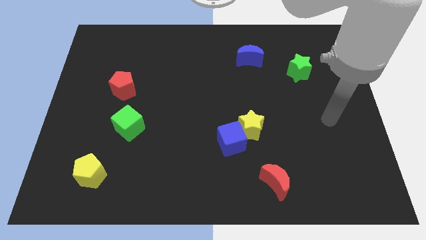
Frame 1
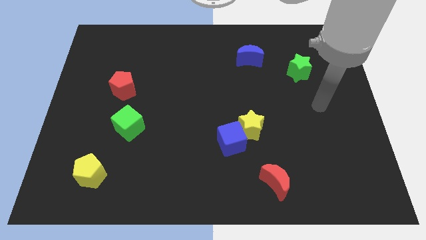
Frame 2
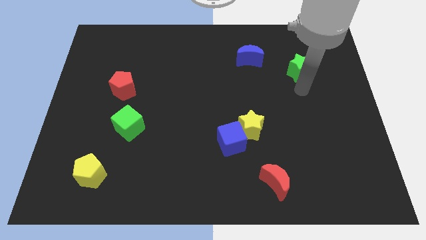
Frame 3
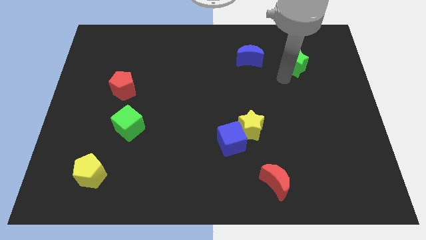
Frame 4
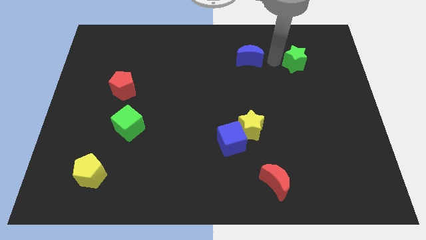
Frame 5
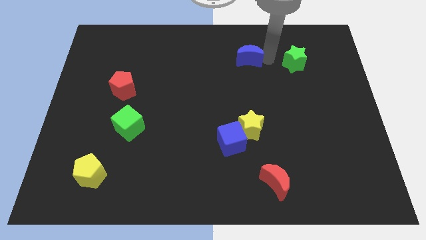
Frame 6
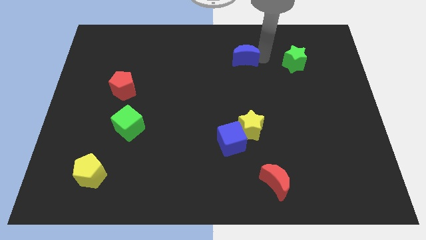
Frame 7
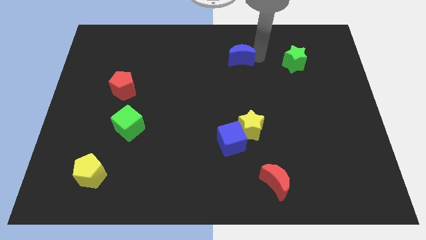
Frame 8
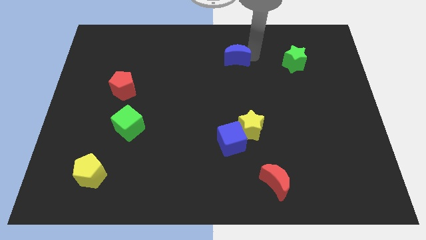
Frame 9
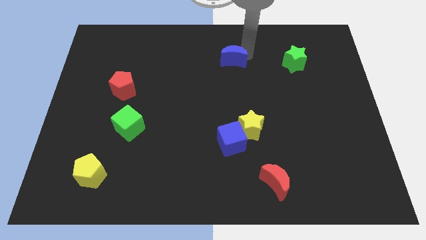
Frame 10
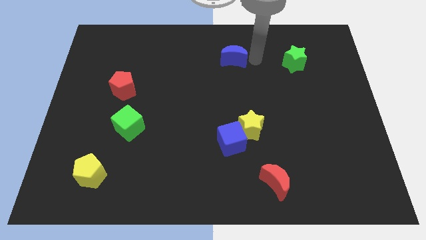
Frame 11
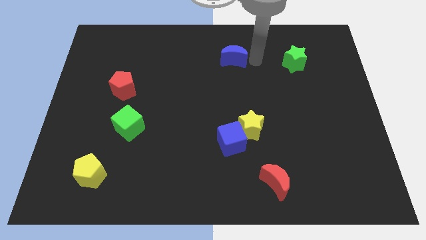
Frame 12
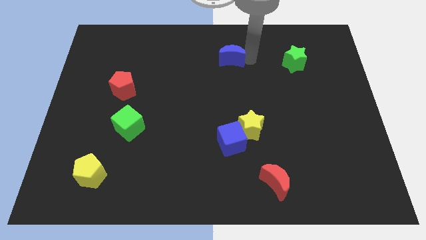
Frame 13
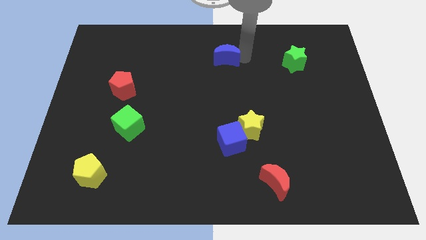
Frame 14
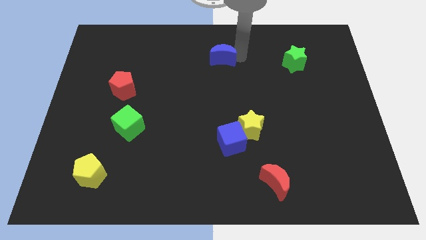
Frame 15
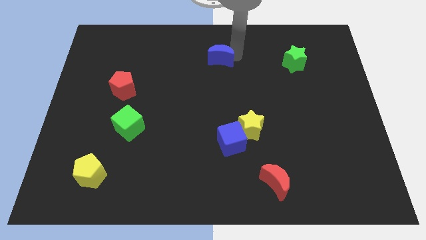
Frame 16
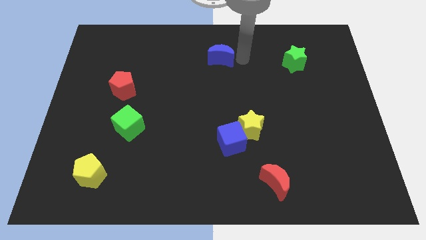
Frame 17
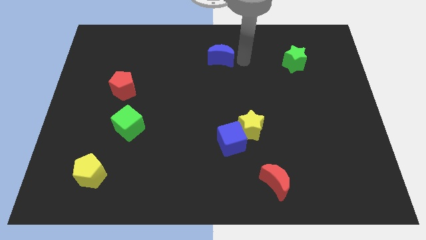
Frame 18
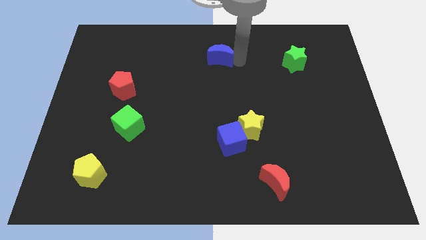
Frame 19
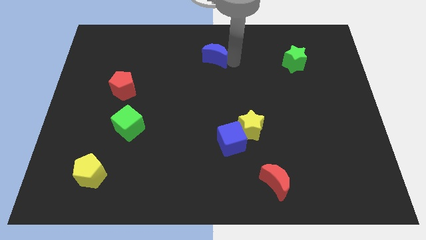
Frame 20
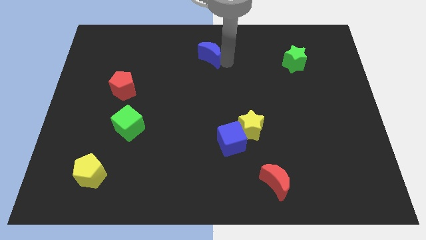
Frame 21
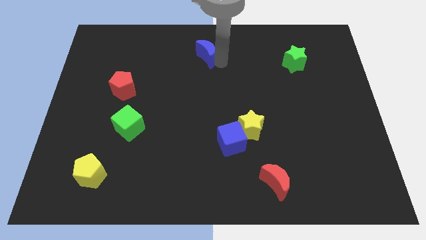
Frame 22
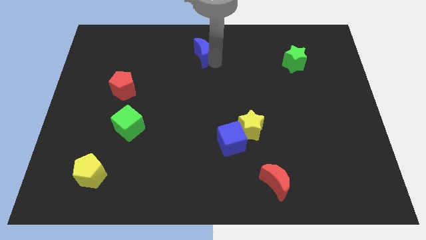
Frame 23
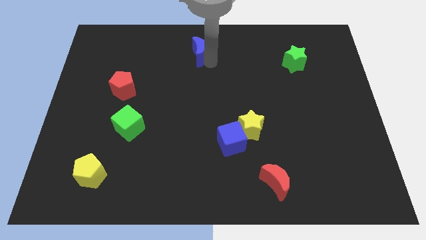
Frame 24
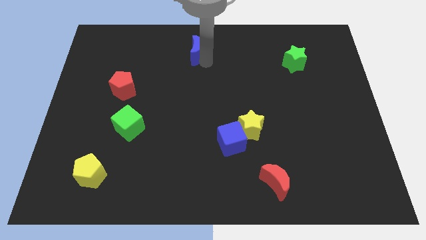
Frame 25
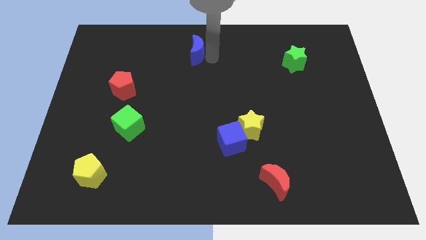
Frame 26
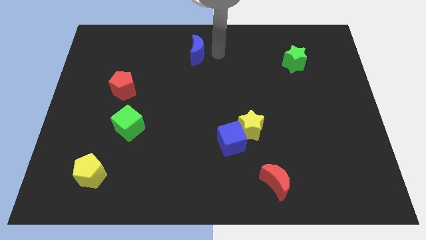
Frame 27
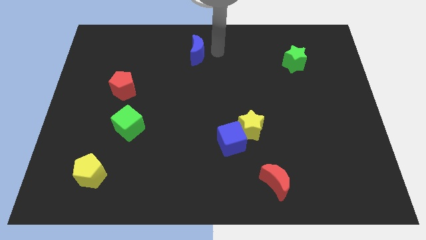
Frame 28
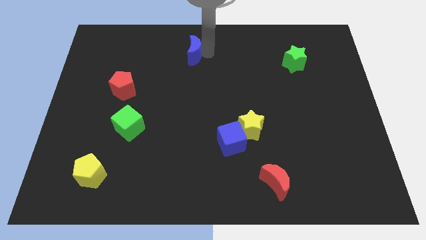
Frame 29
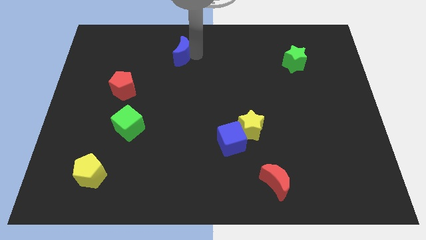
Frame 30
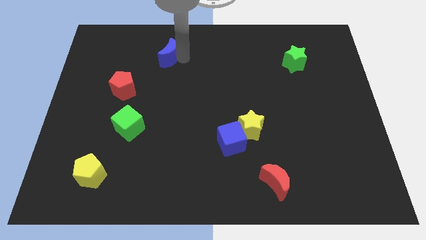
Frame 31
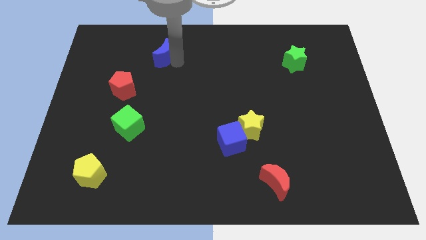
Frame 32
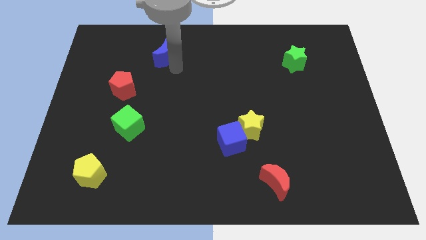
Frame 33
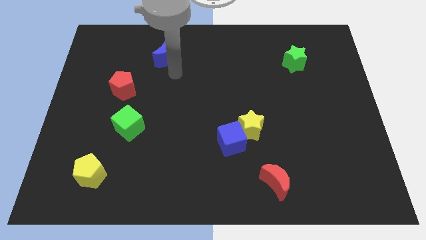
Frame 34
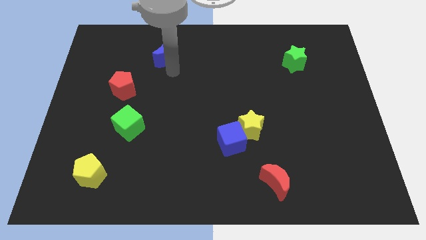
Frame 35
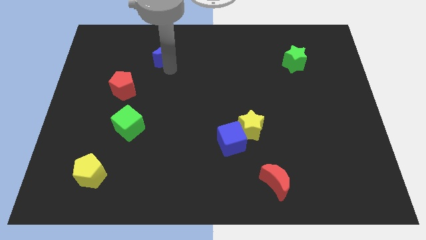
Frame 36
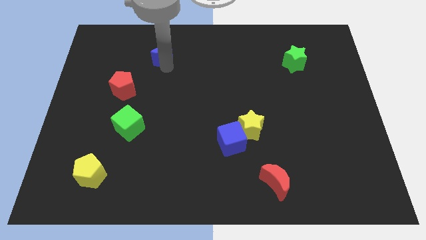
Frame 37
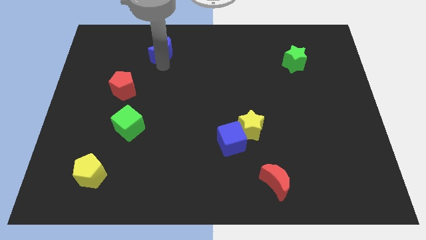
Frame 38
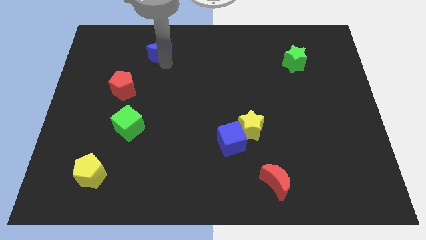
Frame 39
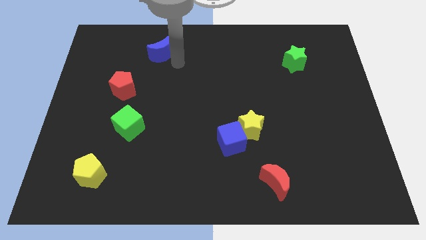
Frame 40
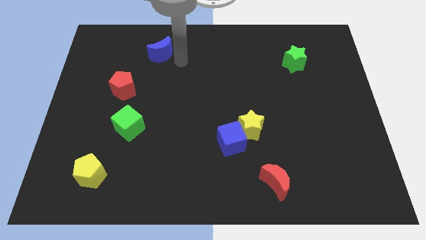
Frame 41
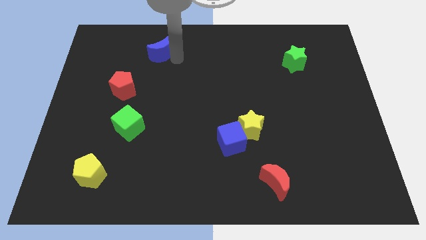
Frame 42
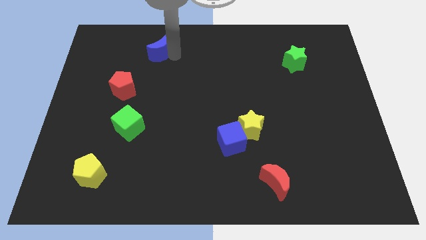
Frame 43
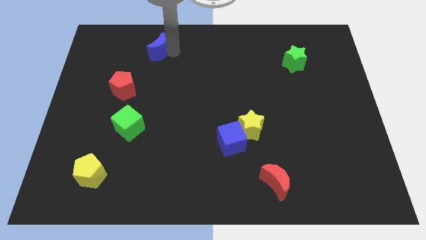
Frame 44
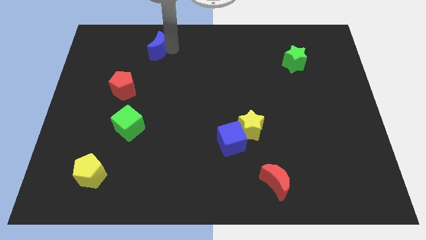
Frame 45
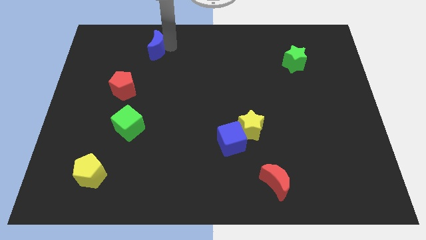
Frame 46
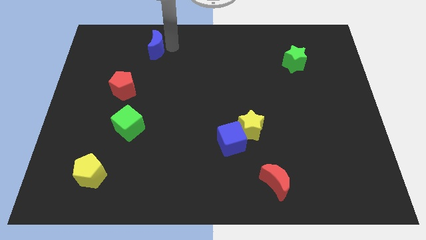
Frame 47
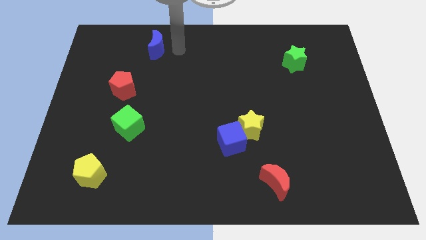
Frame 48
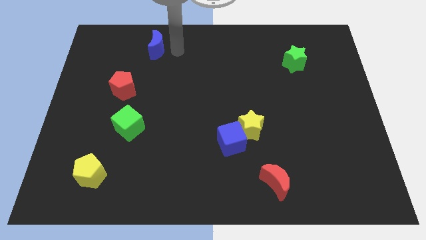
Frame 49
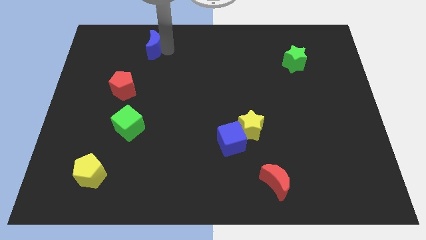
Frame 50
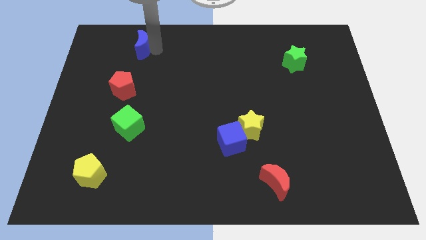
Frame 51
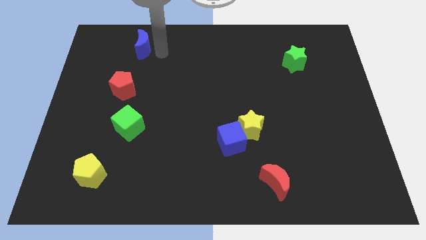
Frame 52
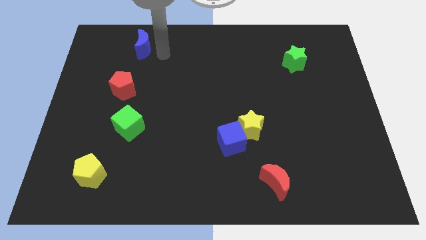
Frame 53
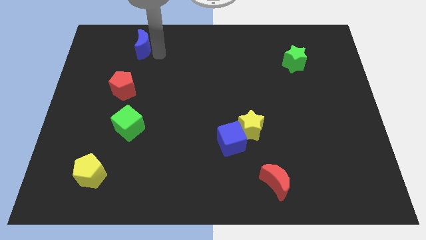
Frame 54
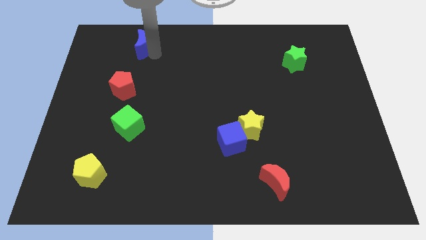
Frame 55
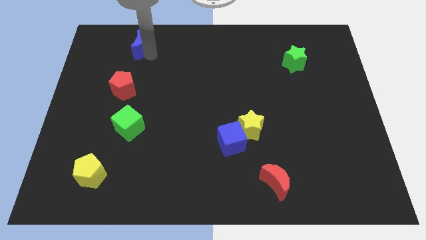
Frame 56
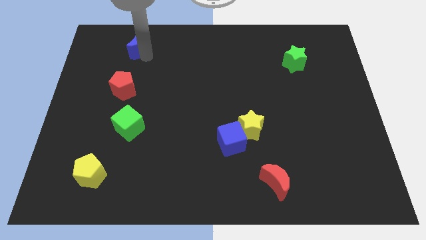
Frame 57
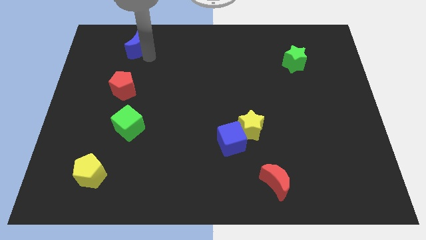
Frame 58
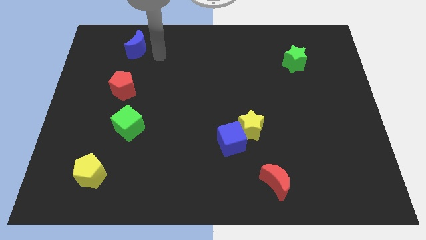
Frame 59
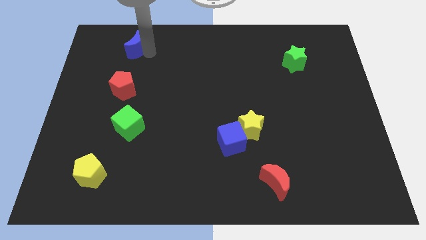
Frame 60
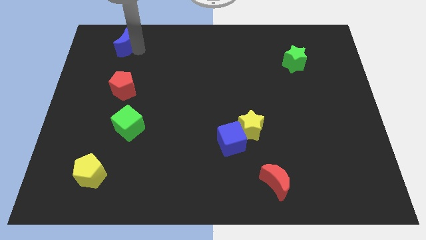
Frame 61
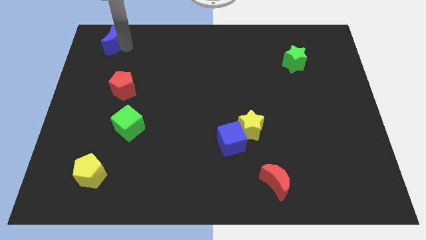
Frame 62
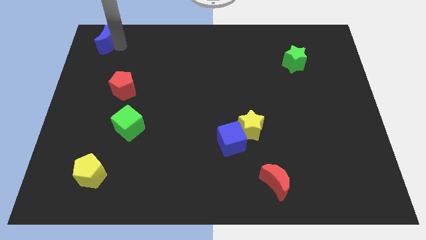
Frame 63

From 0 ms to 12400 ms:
push the blue moon to the top left
